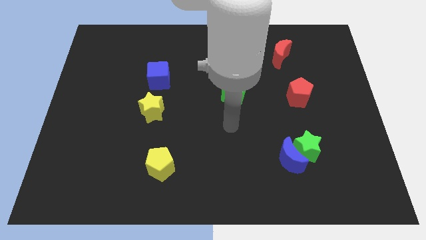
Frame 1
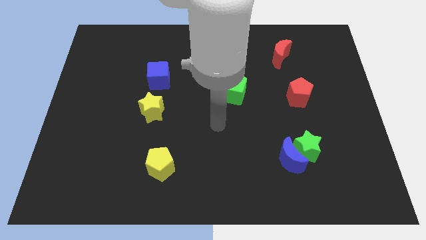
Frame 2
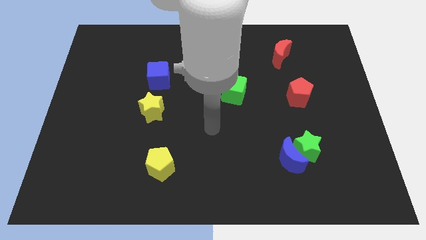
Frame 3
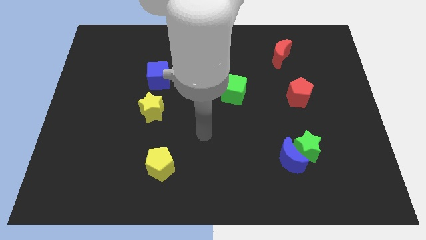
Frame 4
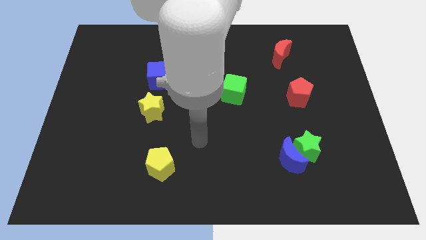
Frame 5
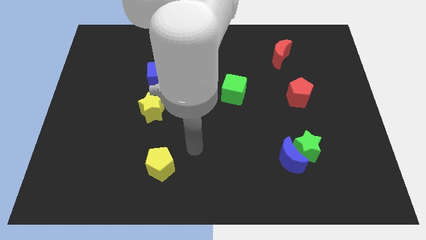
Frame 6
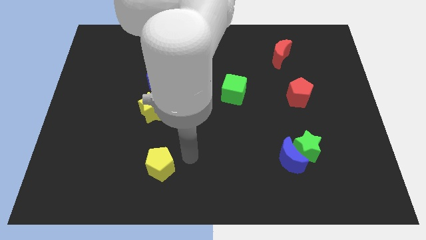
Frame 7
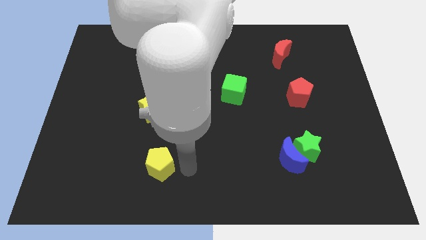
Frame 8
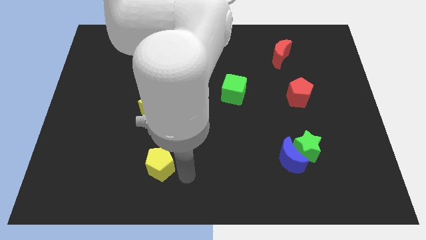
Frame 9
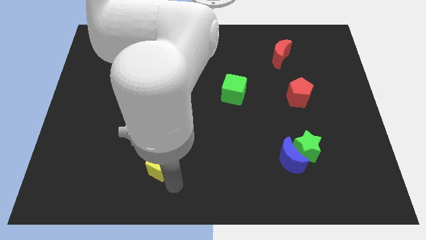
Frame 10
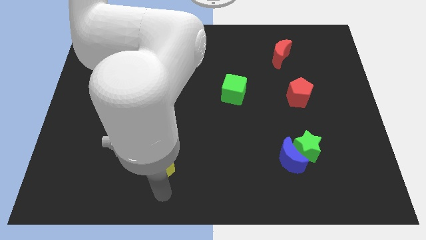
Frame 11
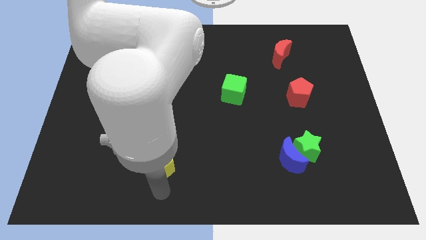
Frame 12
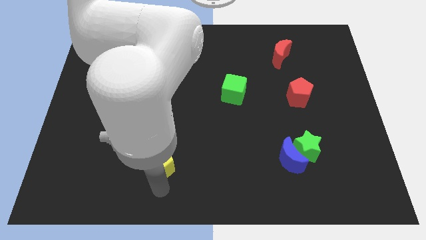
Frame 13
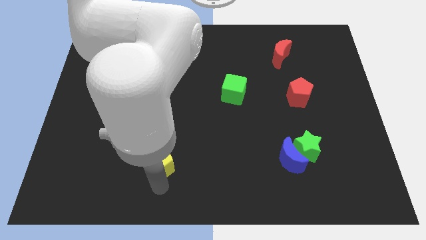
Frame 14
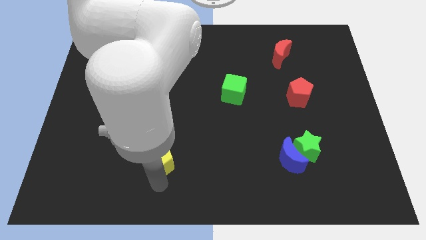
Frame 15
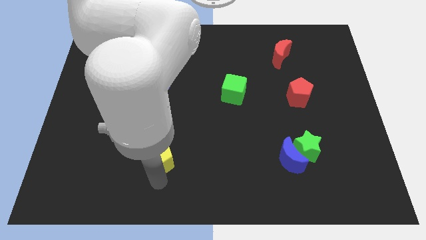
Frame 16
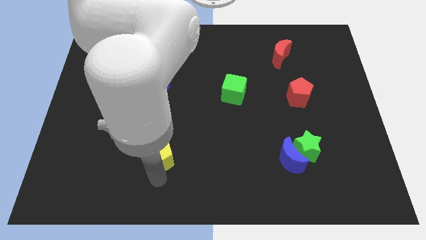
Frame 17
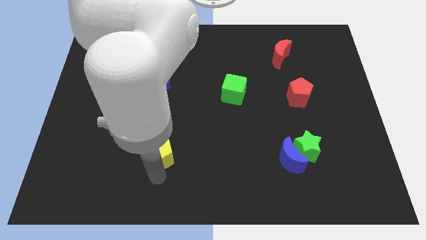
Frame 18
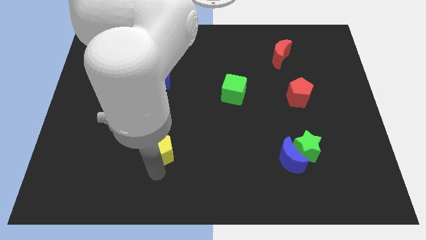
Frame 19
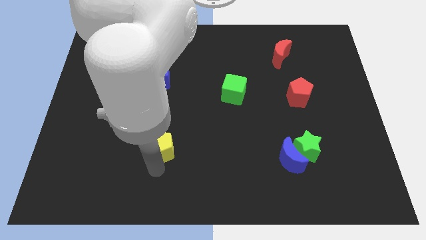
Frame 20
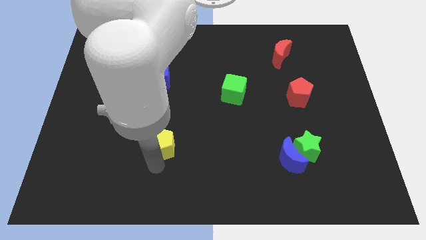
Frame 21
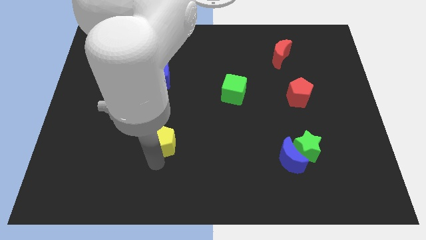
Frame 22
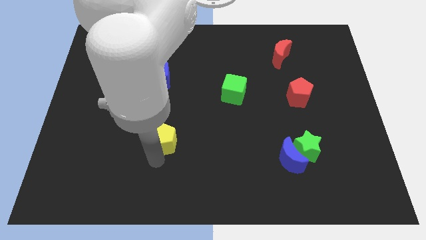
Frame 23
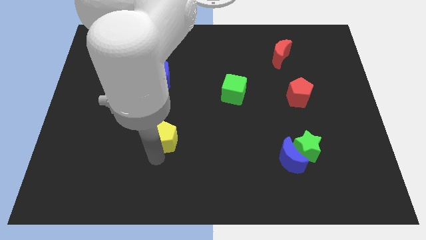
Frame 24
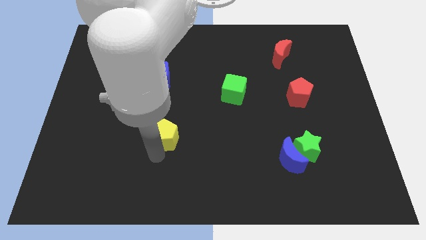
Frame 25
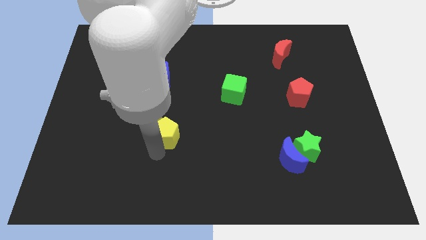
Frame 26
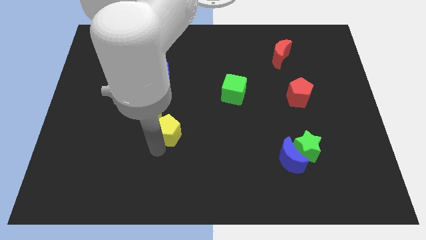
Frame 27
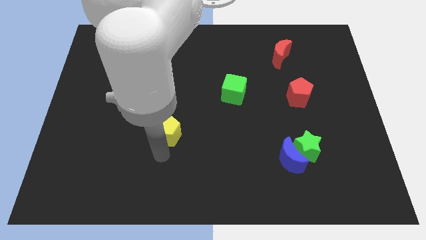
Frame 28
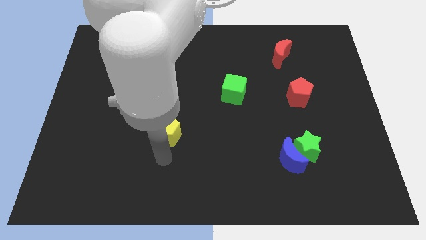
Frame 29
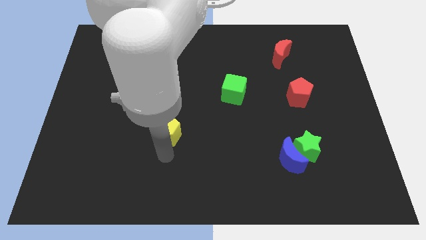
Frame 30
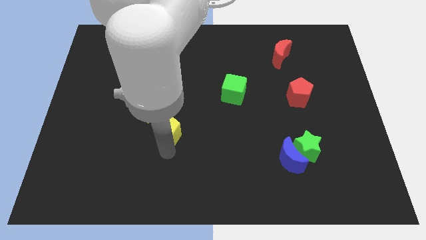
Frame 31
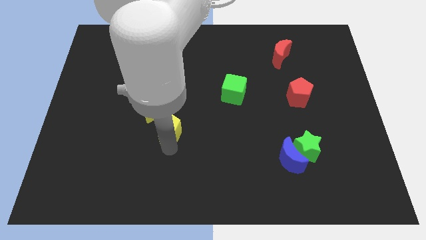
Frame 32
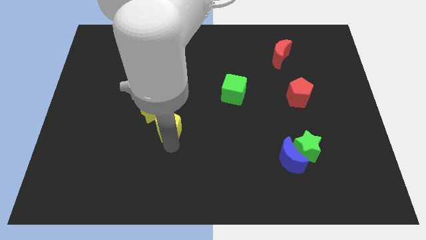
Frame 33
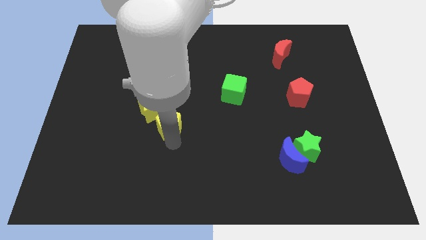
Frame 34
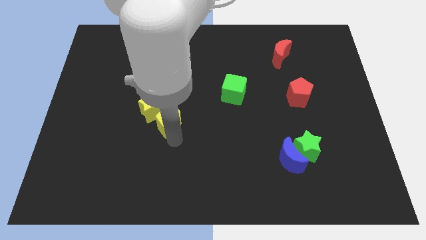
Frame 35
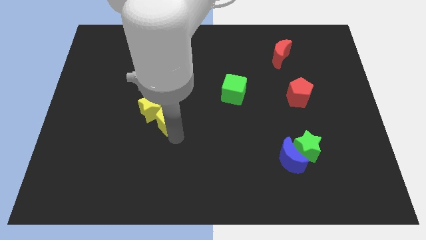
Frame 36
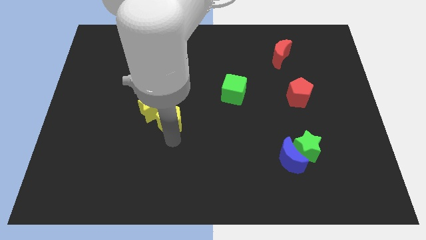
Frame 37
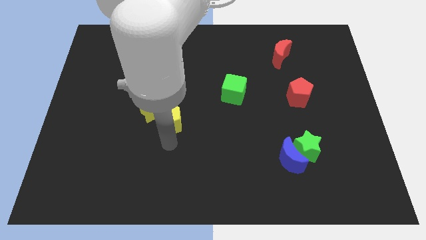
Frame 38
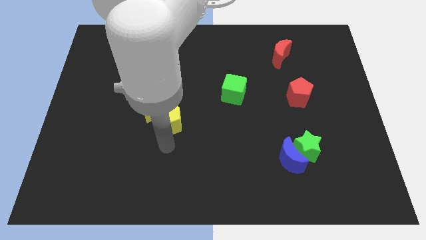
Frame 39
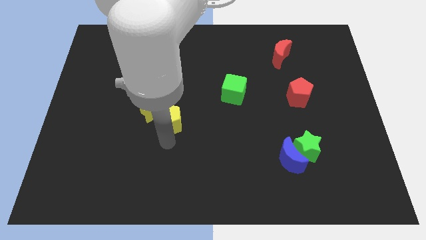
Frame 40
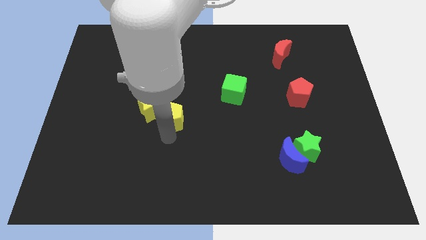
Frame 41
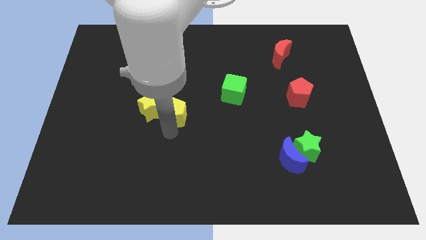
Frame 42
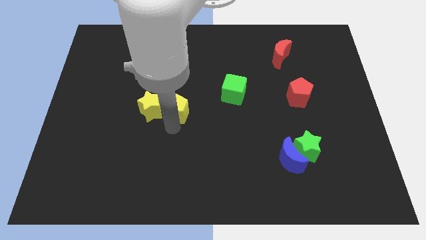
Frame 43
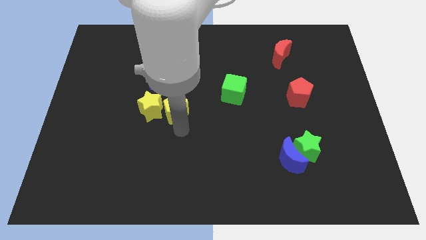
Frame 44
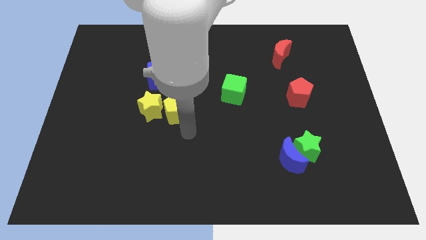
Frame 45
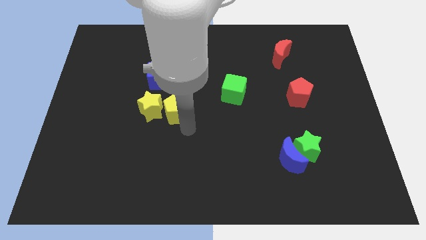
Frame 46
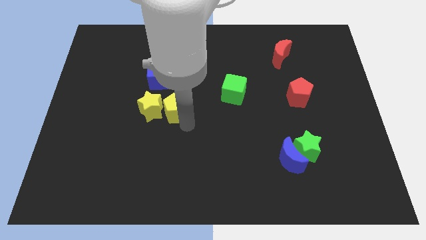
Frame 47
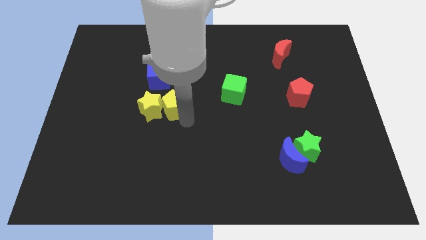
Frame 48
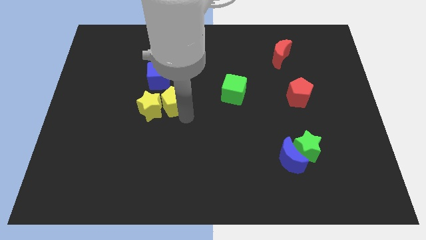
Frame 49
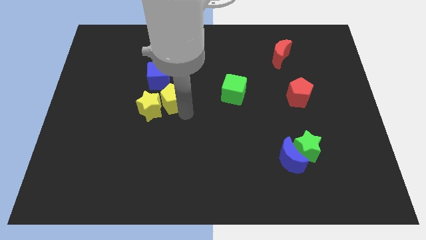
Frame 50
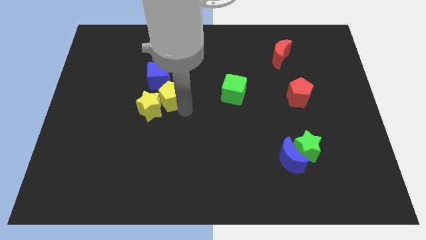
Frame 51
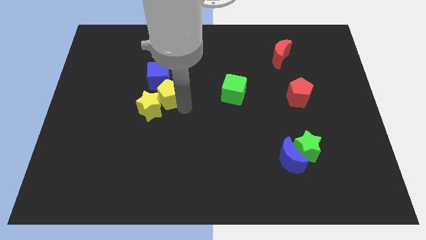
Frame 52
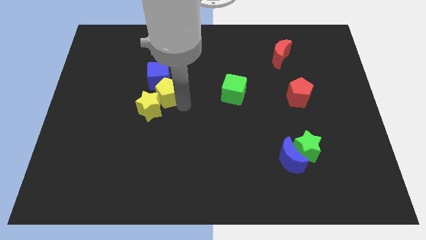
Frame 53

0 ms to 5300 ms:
put the yellow pentagon close to the blue cube

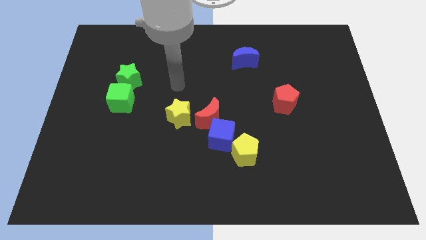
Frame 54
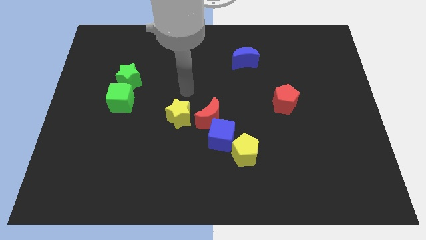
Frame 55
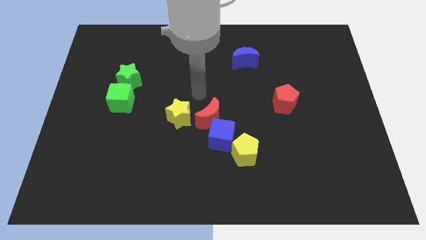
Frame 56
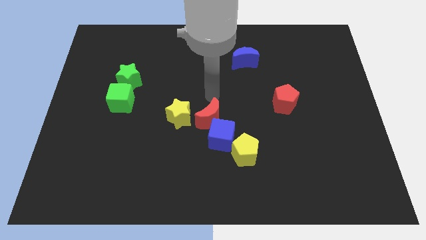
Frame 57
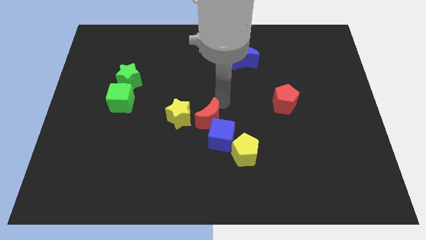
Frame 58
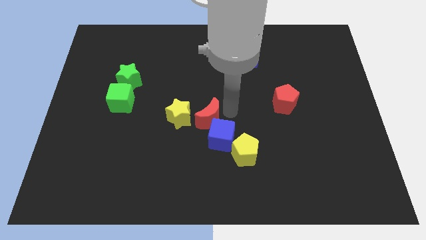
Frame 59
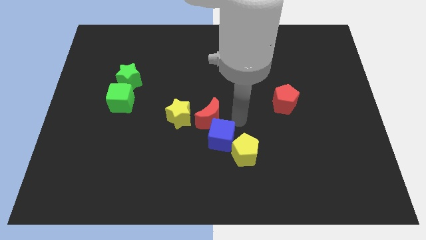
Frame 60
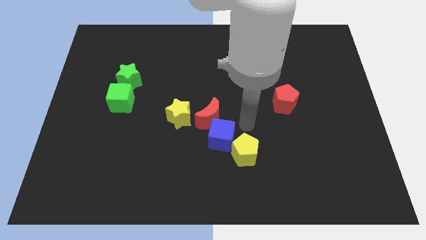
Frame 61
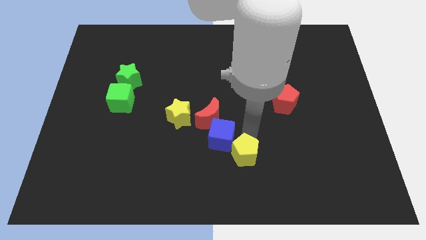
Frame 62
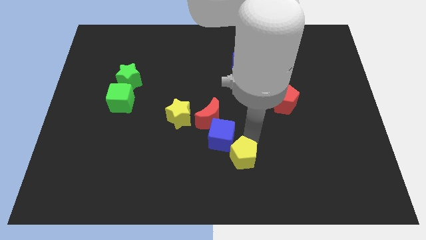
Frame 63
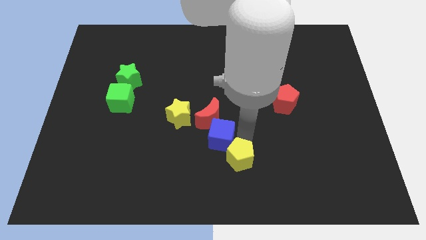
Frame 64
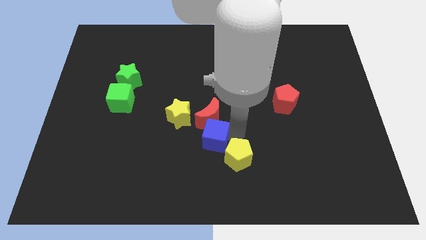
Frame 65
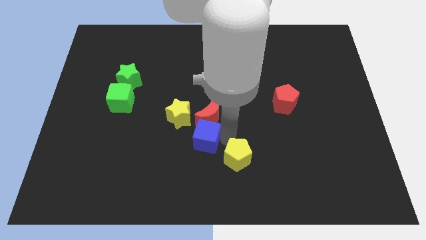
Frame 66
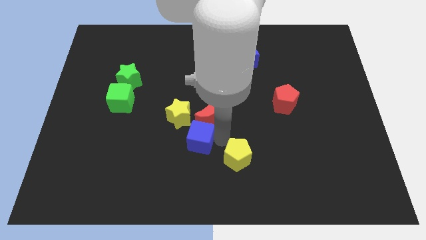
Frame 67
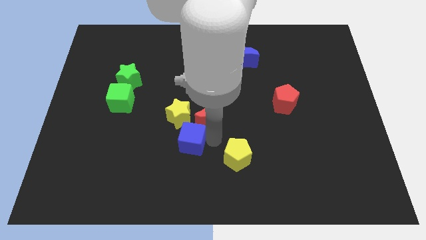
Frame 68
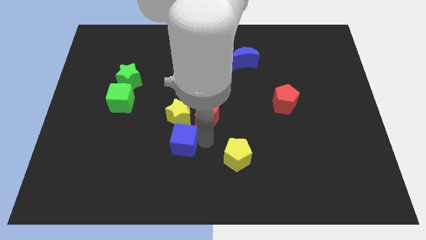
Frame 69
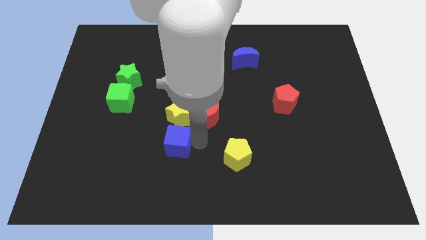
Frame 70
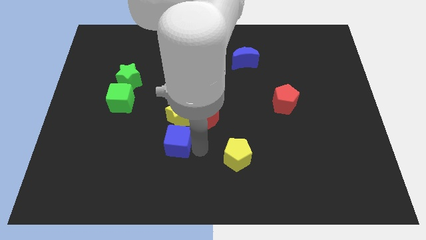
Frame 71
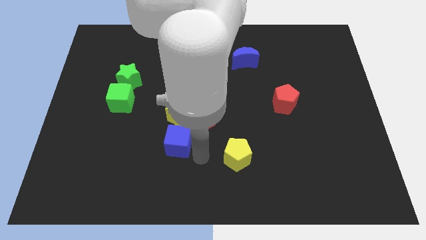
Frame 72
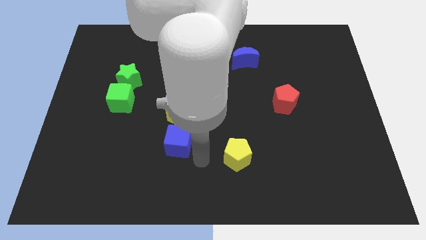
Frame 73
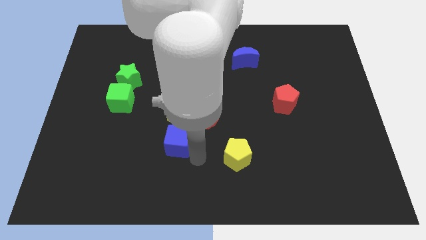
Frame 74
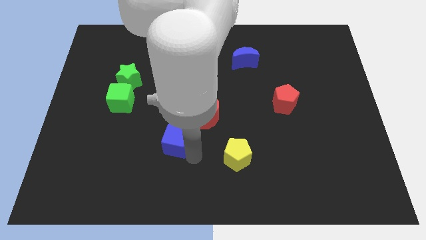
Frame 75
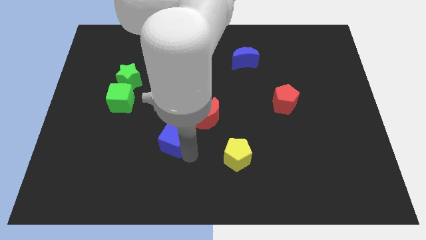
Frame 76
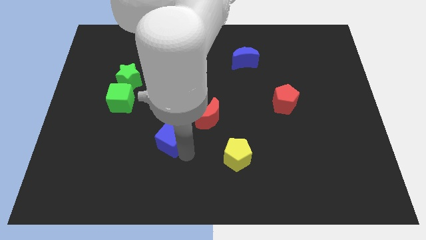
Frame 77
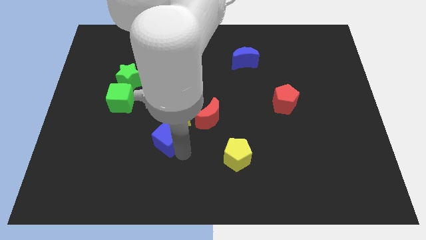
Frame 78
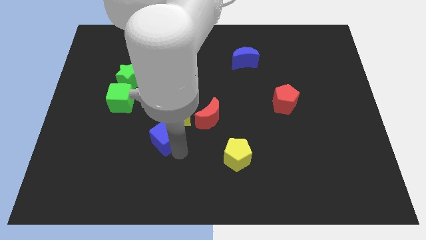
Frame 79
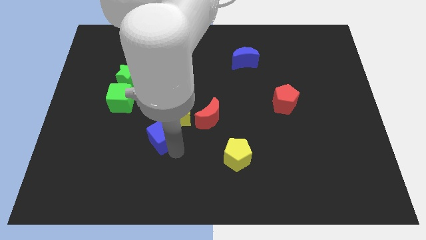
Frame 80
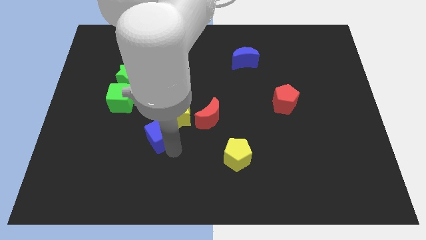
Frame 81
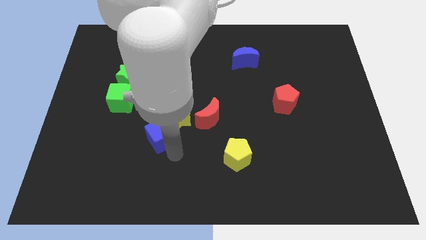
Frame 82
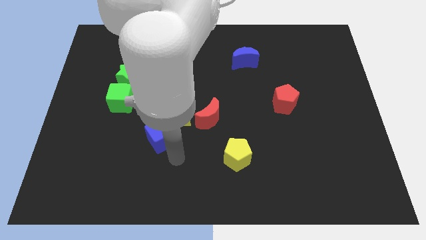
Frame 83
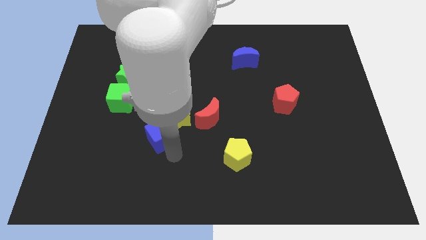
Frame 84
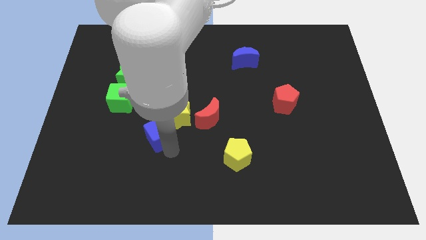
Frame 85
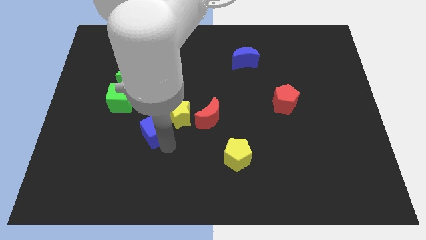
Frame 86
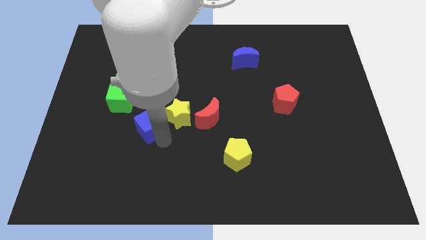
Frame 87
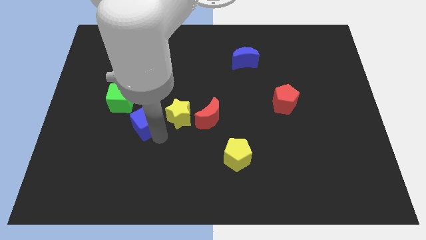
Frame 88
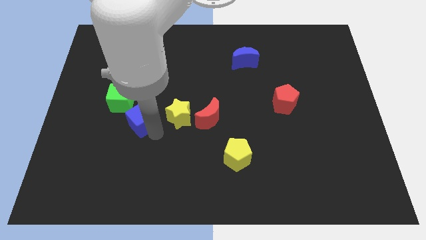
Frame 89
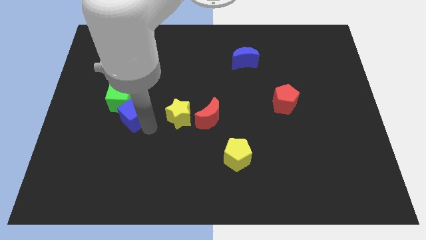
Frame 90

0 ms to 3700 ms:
move the blue cube close to the green cube
